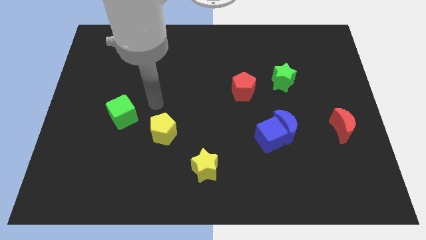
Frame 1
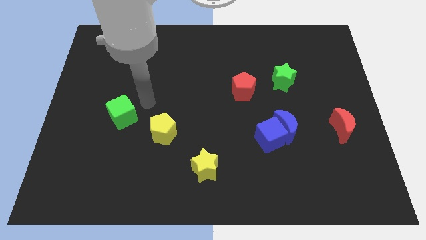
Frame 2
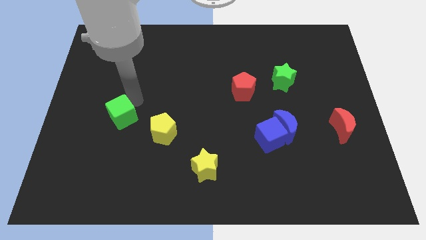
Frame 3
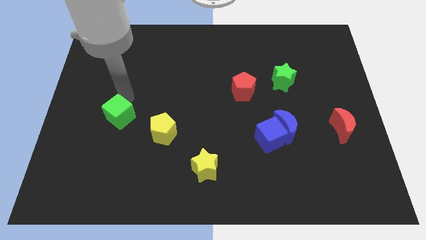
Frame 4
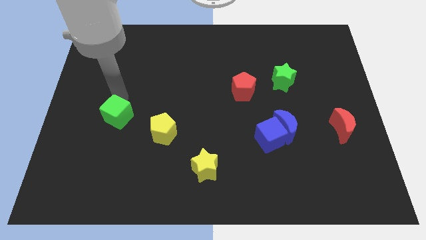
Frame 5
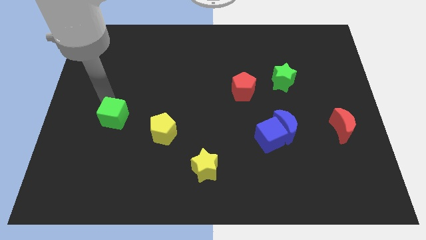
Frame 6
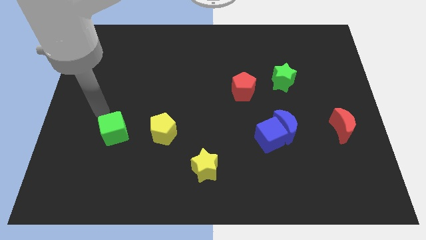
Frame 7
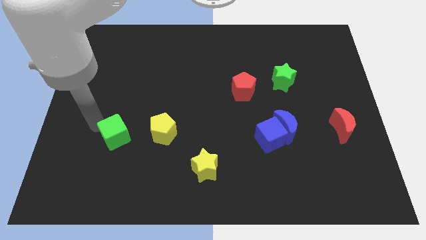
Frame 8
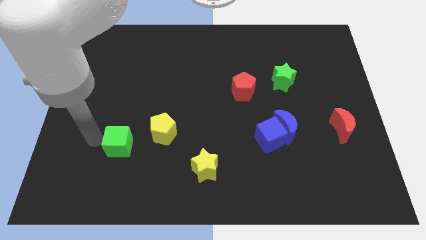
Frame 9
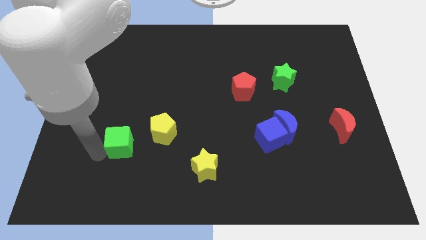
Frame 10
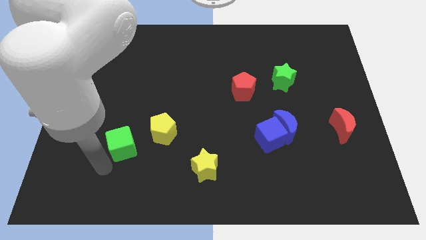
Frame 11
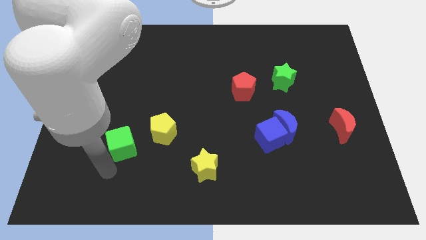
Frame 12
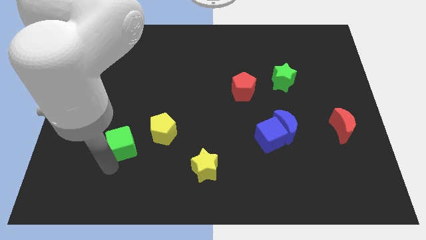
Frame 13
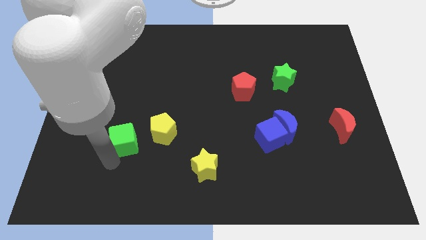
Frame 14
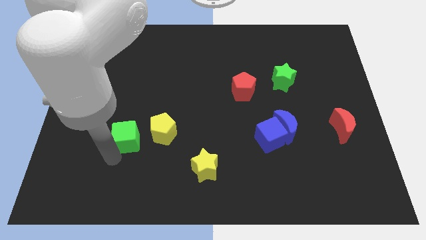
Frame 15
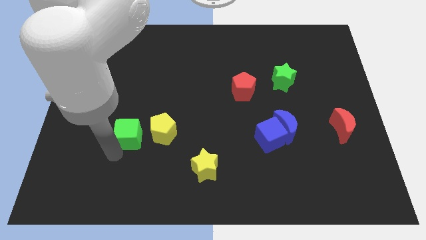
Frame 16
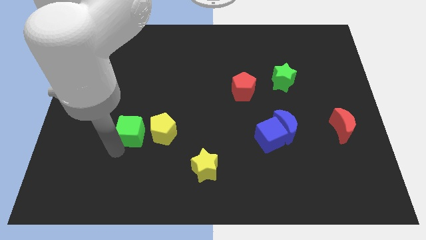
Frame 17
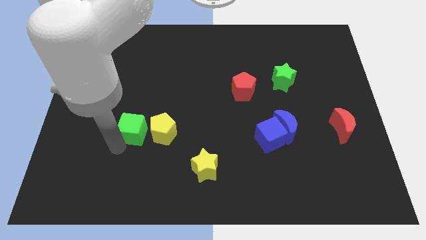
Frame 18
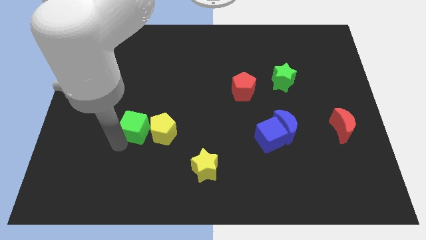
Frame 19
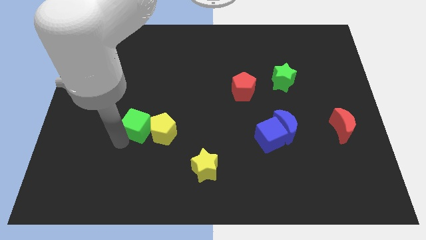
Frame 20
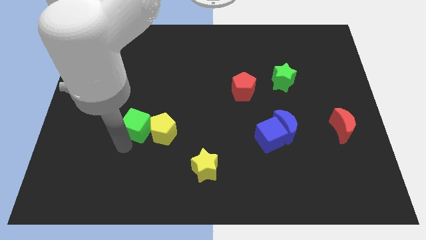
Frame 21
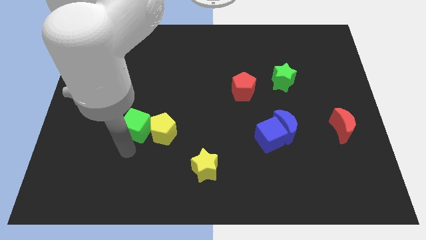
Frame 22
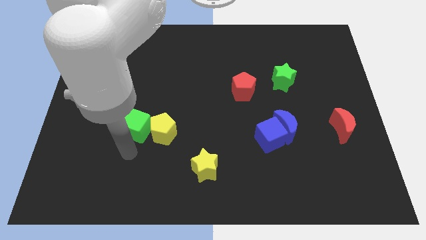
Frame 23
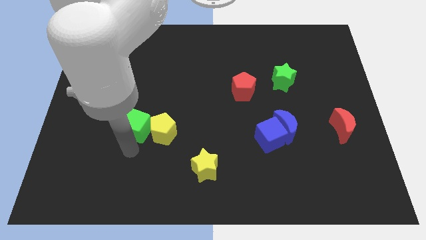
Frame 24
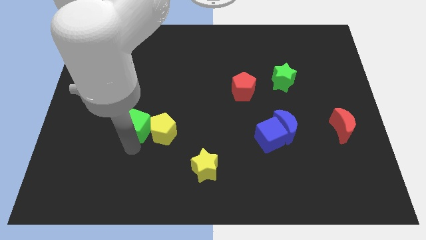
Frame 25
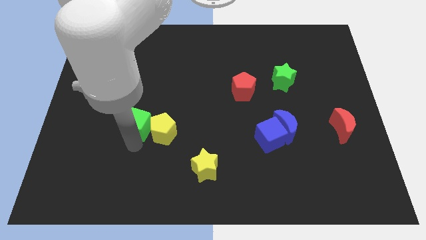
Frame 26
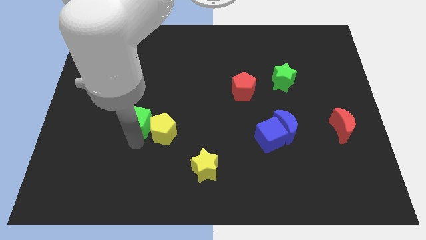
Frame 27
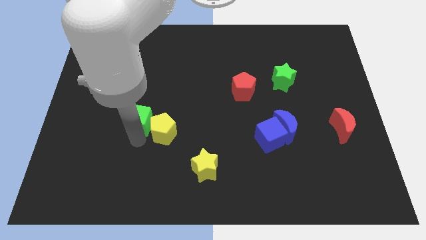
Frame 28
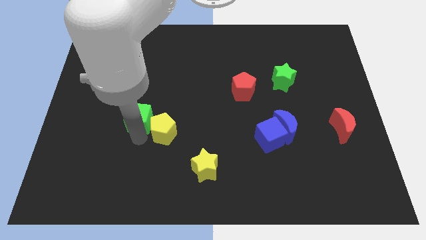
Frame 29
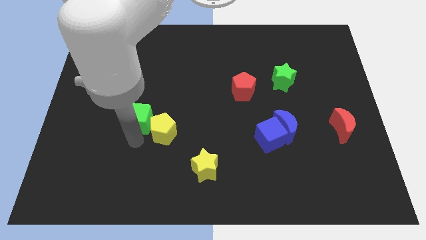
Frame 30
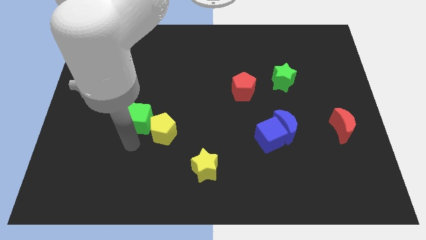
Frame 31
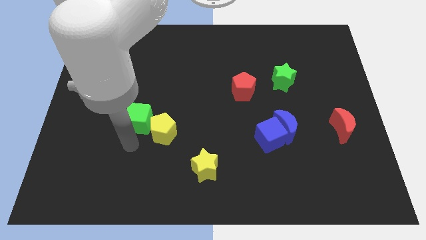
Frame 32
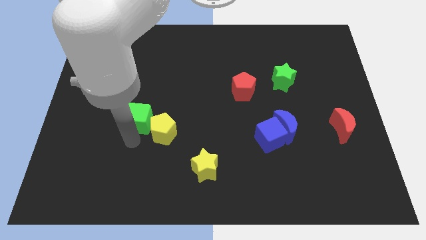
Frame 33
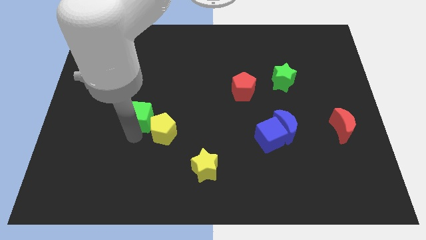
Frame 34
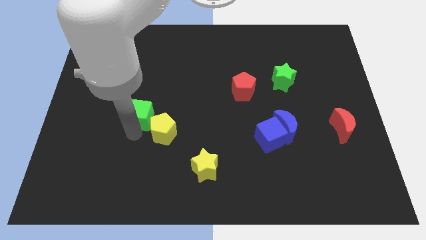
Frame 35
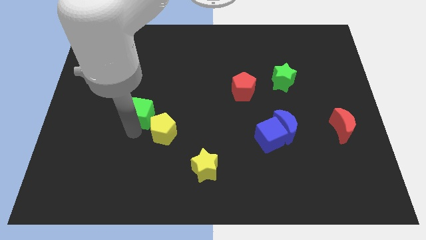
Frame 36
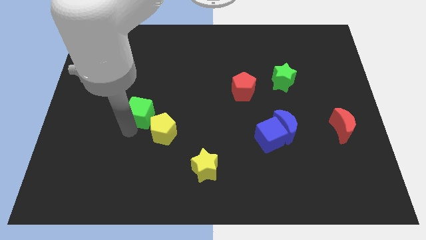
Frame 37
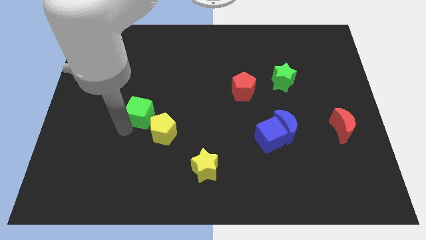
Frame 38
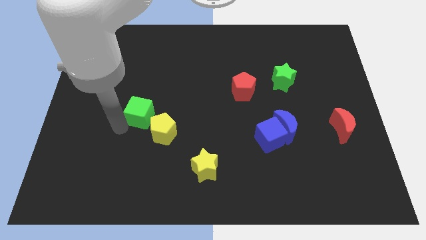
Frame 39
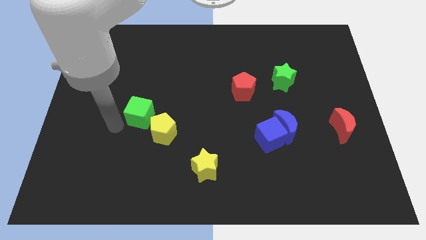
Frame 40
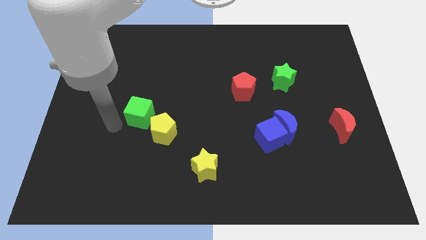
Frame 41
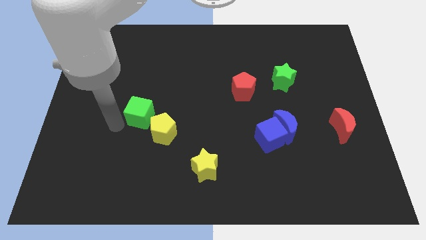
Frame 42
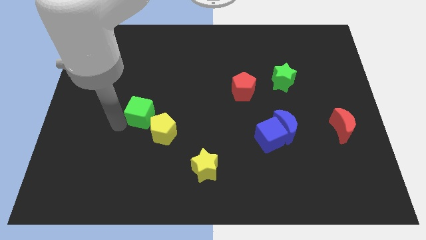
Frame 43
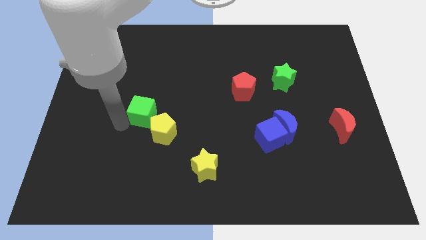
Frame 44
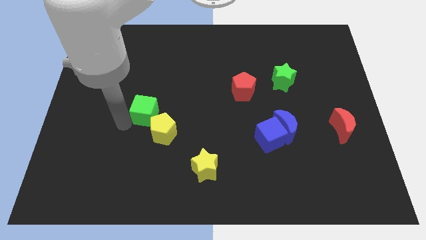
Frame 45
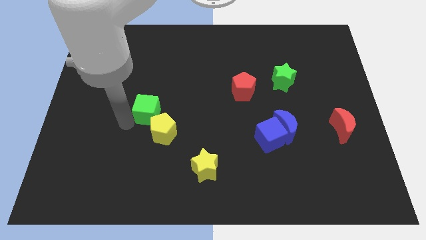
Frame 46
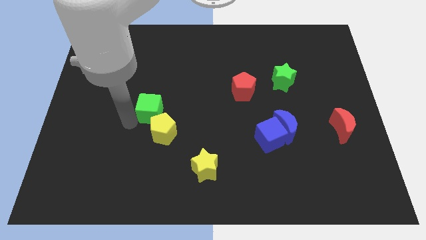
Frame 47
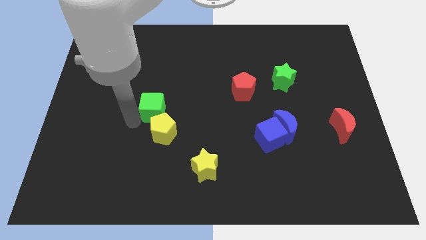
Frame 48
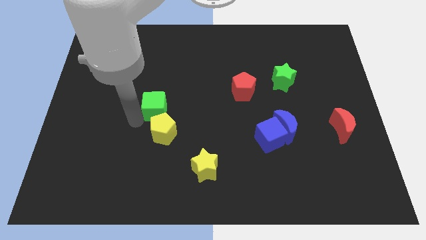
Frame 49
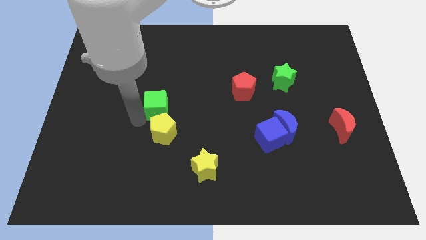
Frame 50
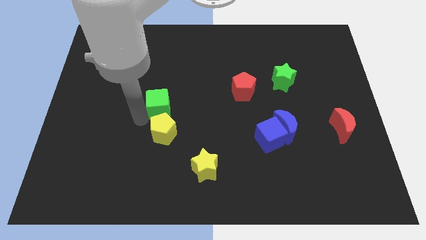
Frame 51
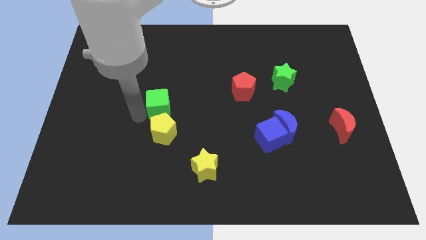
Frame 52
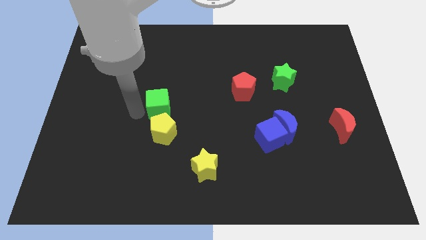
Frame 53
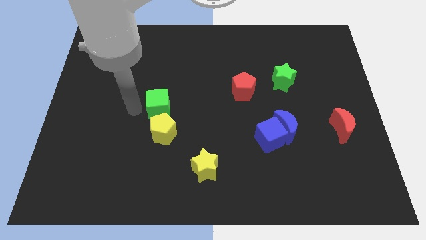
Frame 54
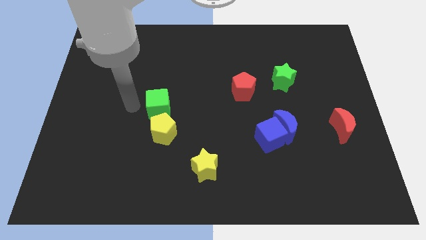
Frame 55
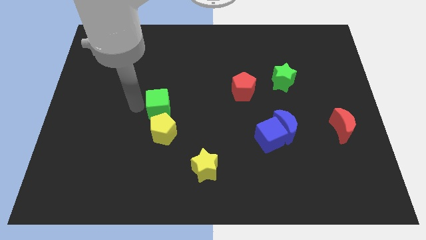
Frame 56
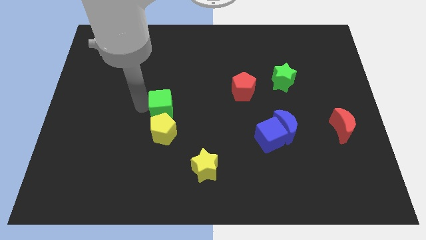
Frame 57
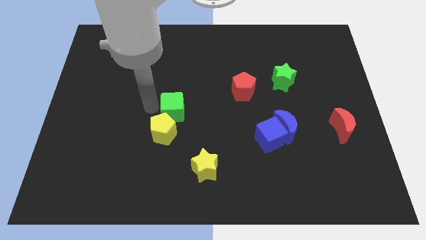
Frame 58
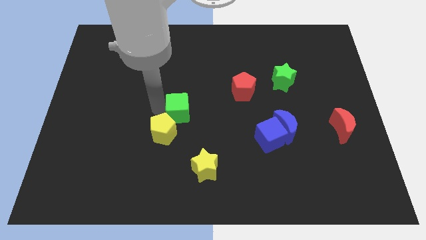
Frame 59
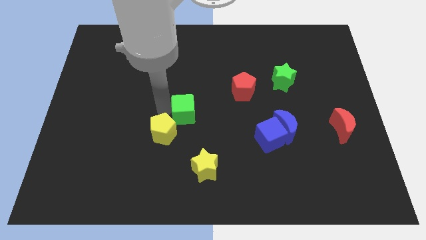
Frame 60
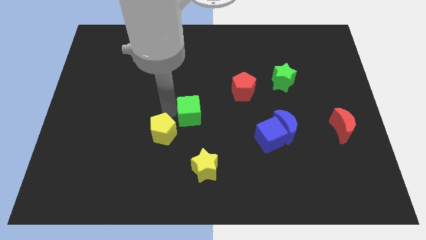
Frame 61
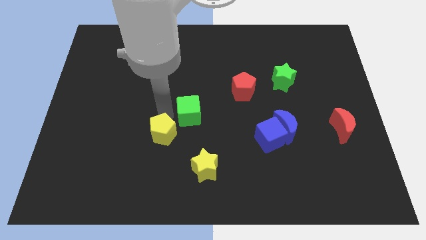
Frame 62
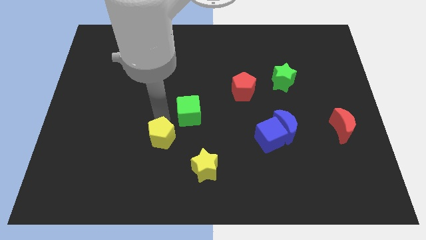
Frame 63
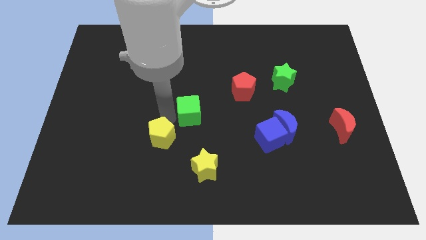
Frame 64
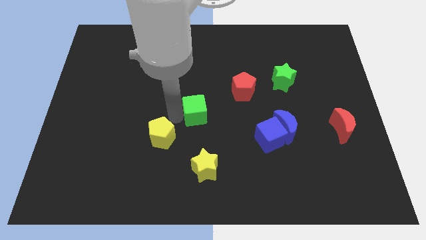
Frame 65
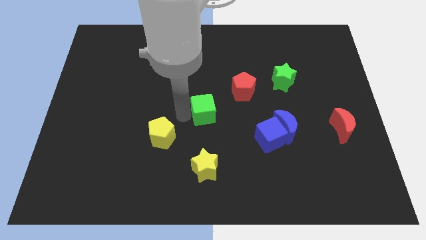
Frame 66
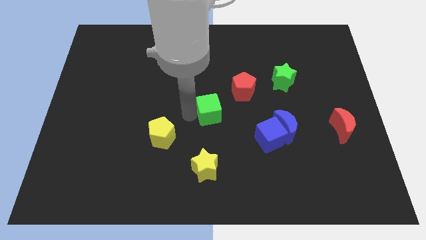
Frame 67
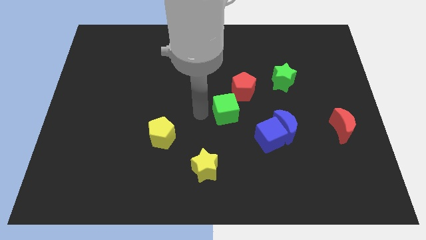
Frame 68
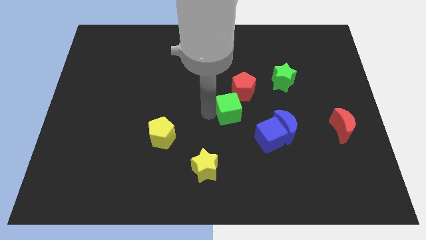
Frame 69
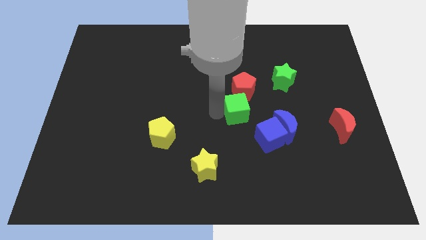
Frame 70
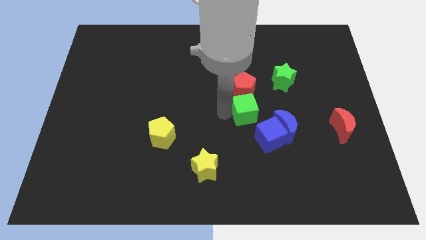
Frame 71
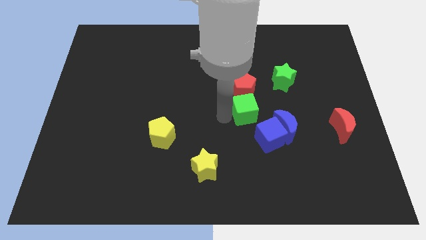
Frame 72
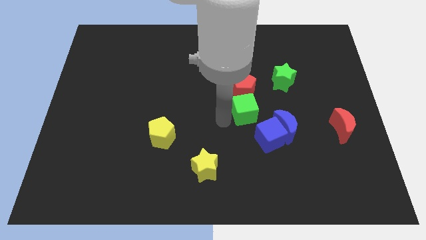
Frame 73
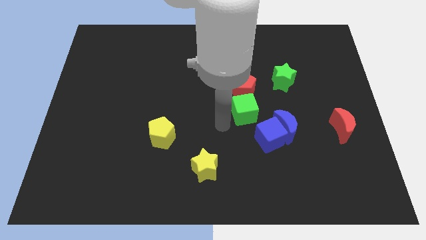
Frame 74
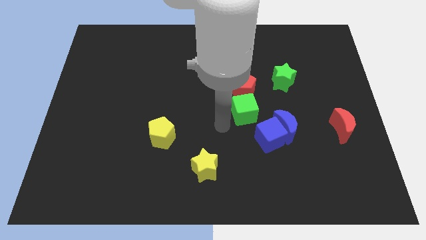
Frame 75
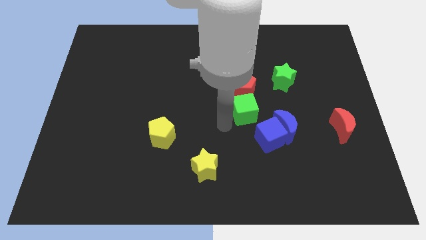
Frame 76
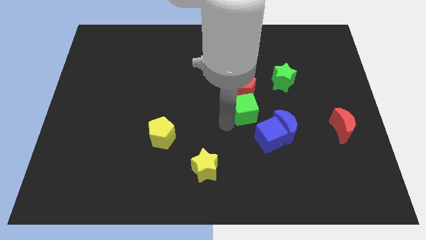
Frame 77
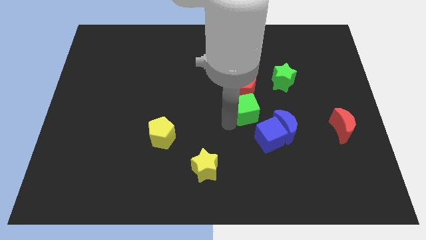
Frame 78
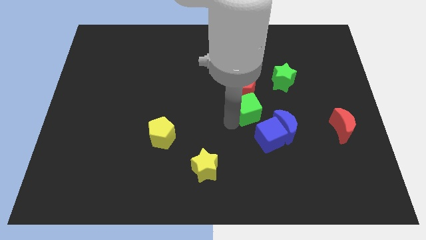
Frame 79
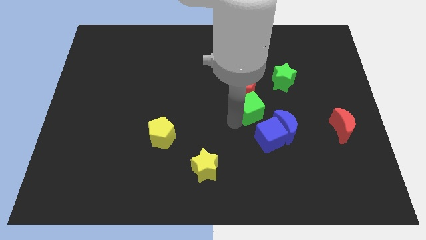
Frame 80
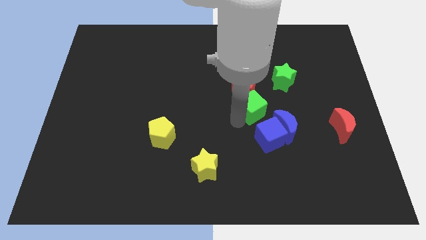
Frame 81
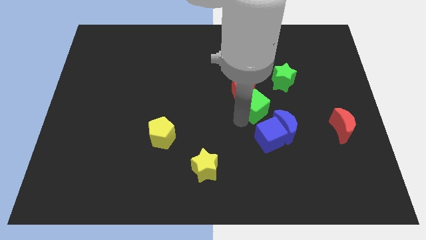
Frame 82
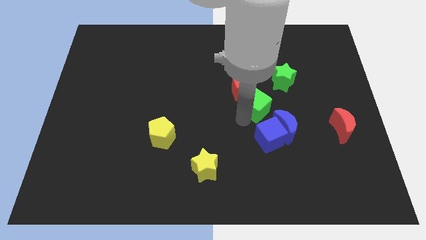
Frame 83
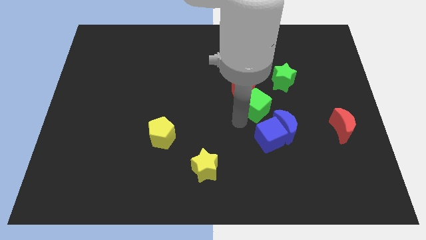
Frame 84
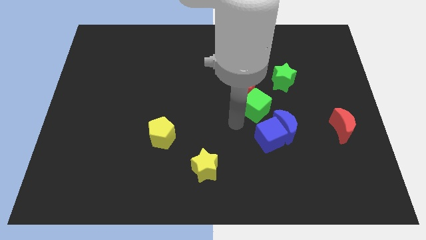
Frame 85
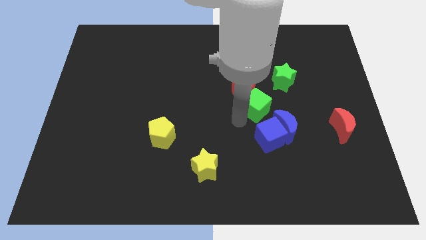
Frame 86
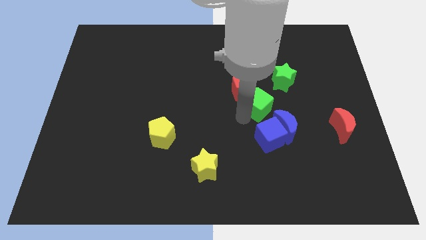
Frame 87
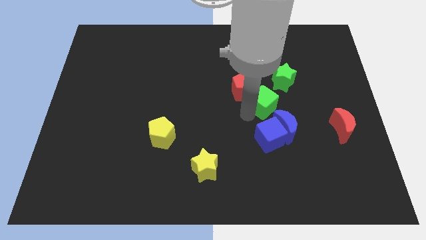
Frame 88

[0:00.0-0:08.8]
slide the green cube to the top of the blue moon
